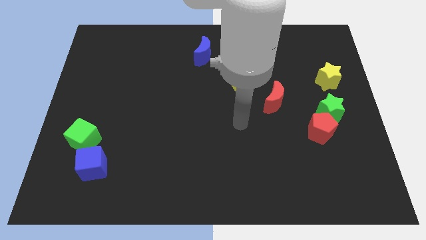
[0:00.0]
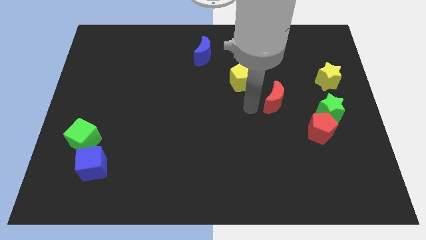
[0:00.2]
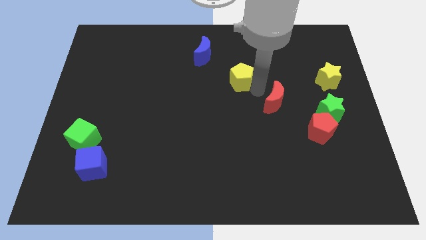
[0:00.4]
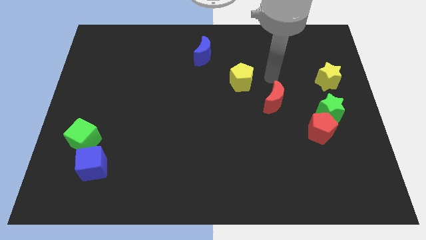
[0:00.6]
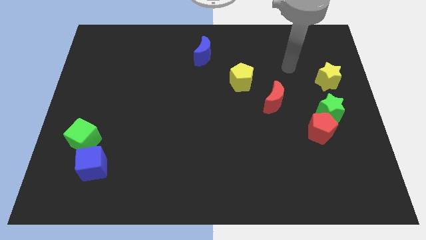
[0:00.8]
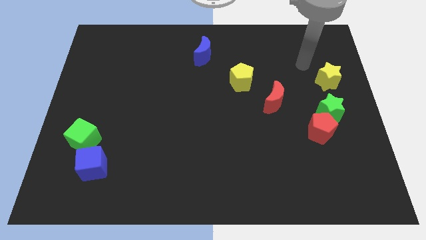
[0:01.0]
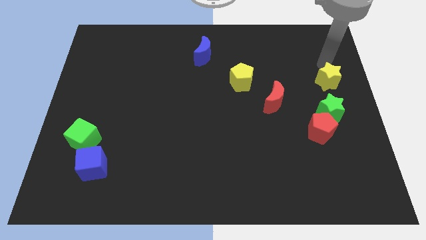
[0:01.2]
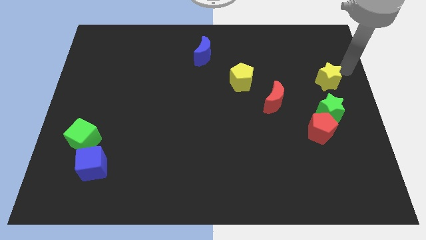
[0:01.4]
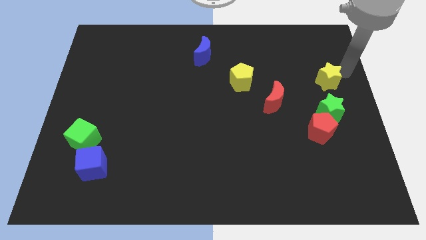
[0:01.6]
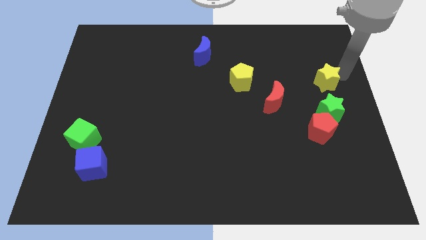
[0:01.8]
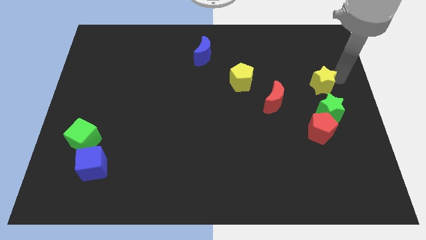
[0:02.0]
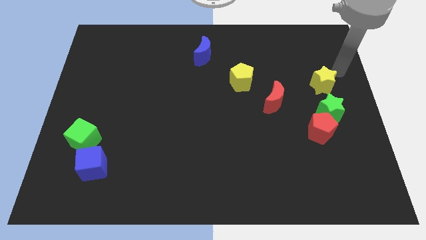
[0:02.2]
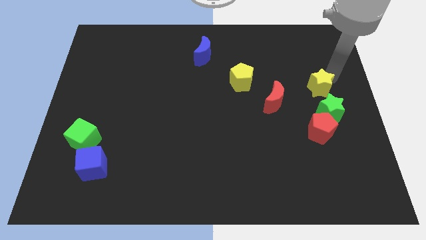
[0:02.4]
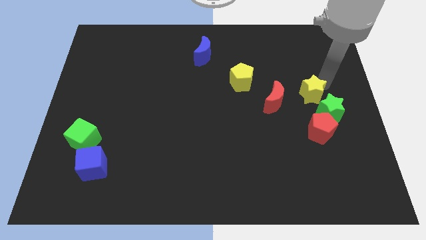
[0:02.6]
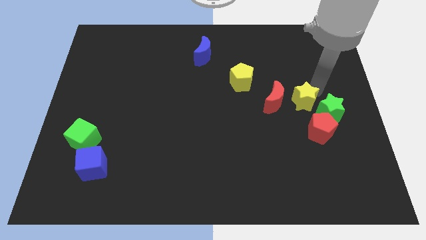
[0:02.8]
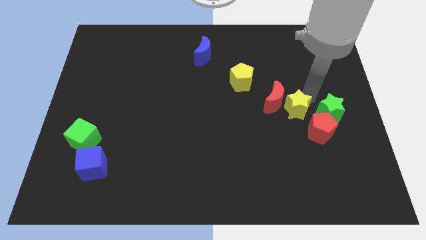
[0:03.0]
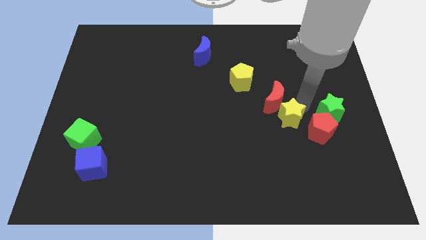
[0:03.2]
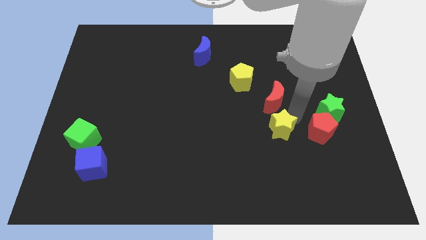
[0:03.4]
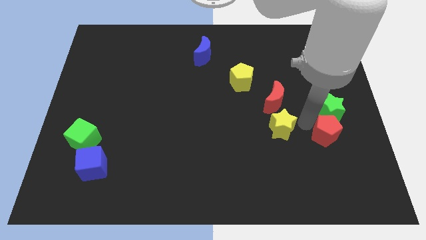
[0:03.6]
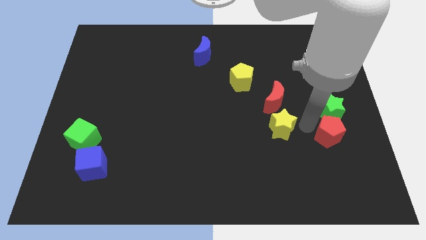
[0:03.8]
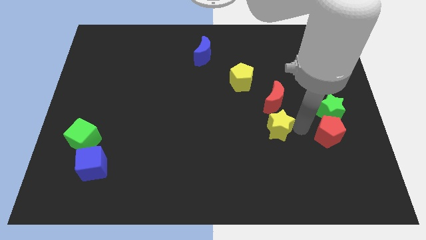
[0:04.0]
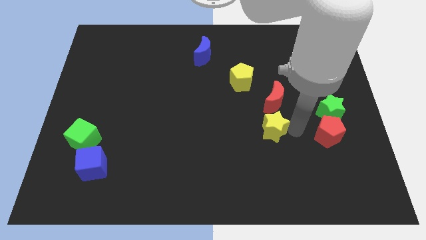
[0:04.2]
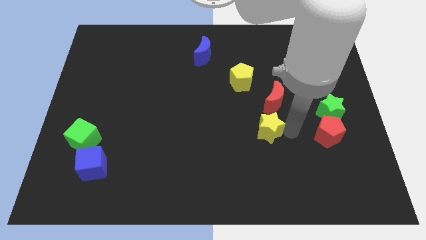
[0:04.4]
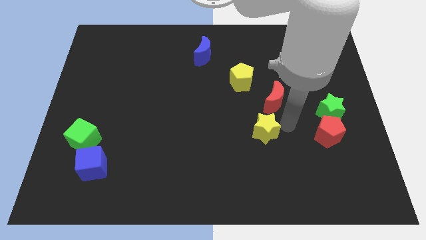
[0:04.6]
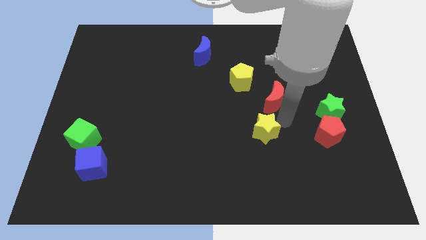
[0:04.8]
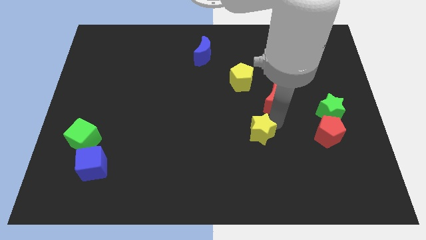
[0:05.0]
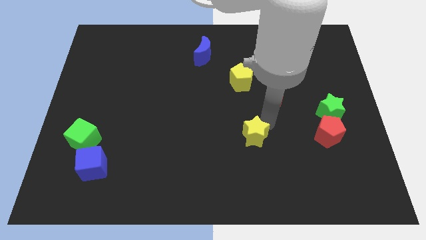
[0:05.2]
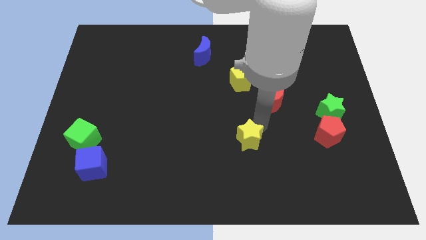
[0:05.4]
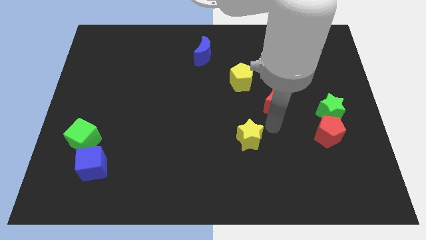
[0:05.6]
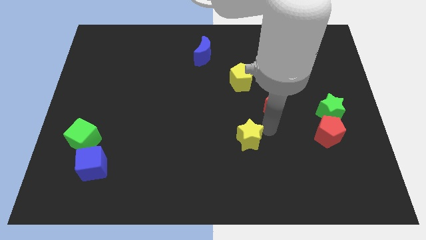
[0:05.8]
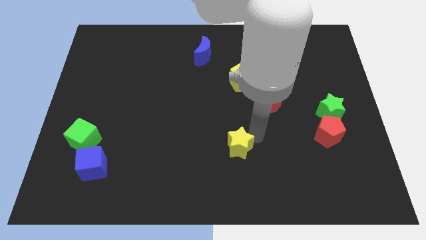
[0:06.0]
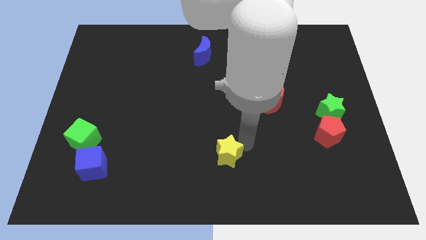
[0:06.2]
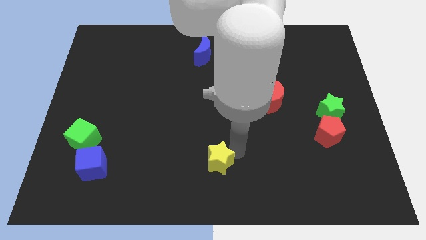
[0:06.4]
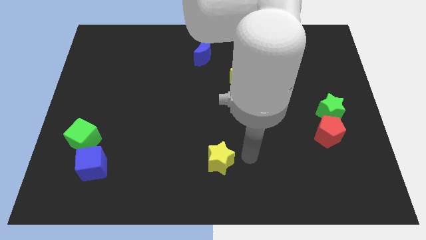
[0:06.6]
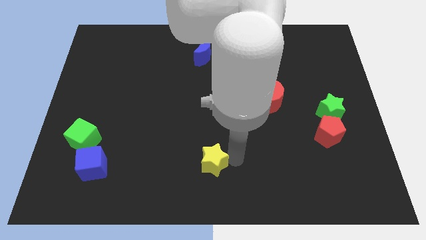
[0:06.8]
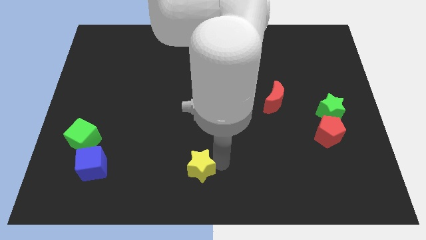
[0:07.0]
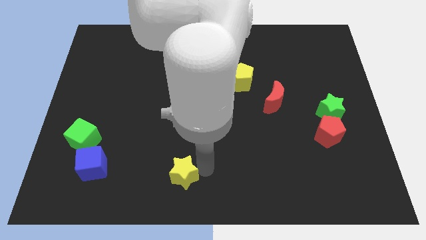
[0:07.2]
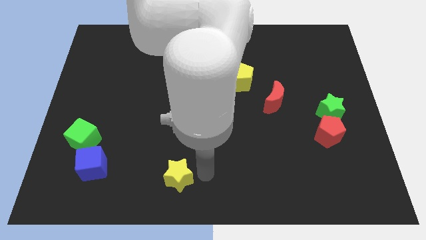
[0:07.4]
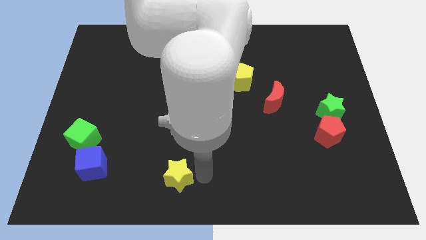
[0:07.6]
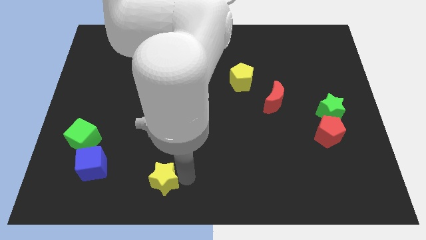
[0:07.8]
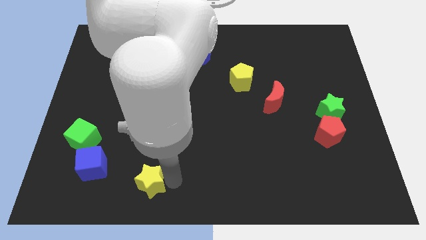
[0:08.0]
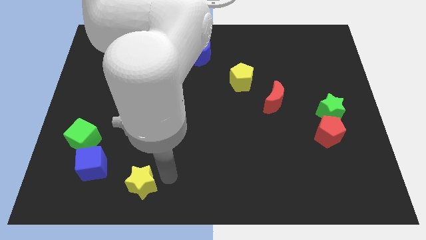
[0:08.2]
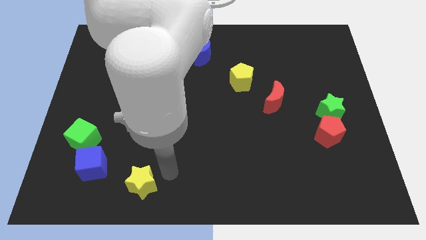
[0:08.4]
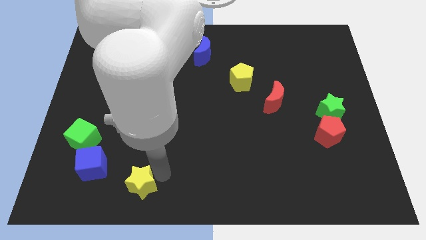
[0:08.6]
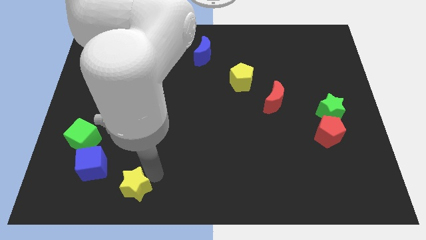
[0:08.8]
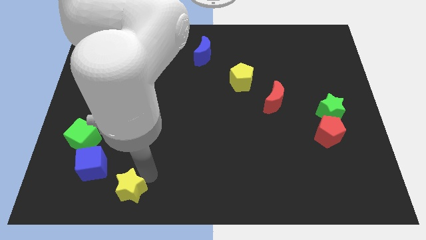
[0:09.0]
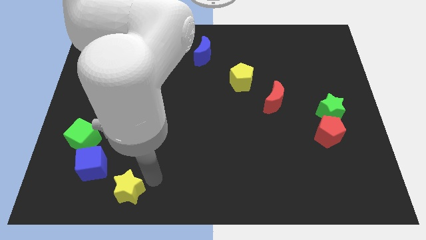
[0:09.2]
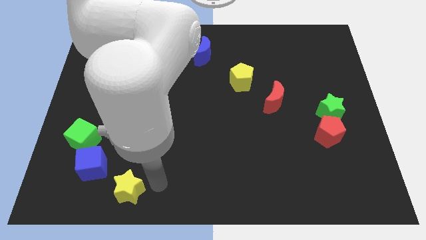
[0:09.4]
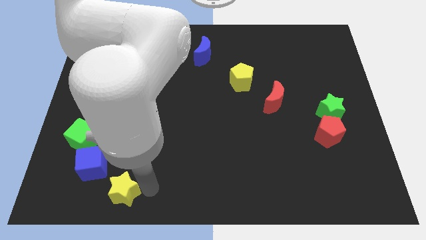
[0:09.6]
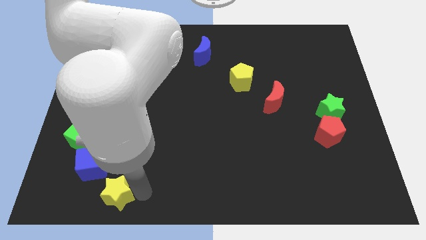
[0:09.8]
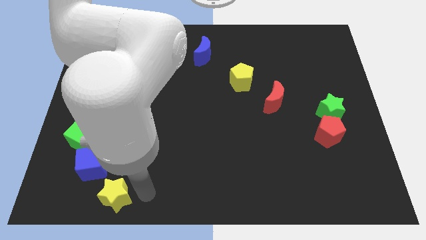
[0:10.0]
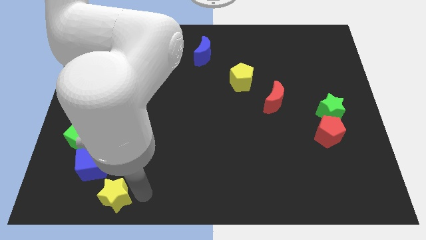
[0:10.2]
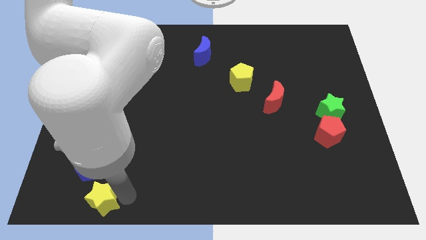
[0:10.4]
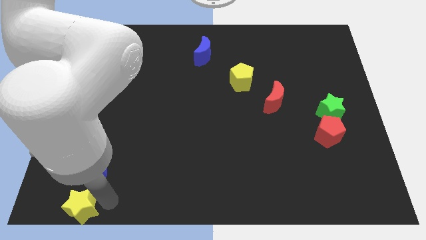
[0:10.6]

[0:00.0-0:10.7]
put the yellow star to the bottom left of the board

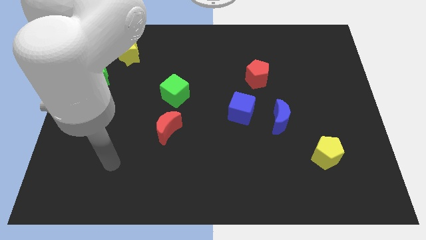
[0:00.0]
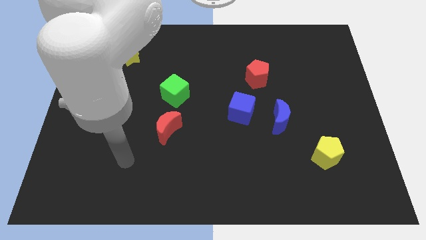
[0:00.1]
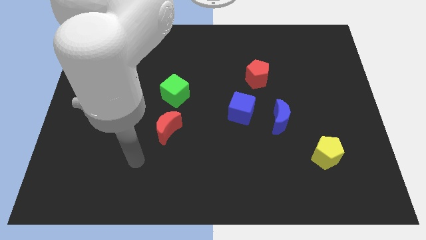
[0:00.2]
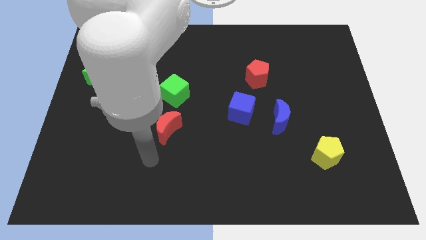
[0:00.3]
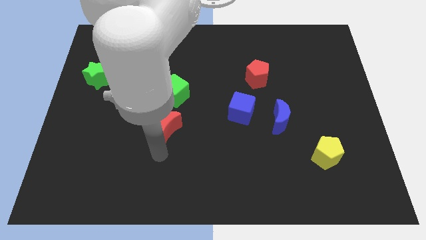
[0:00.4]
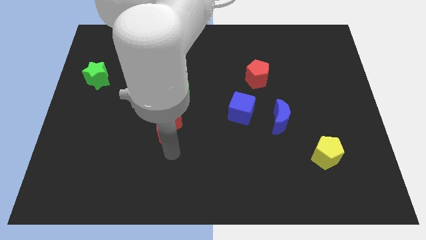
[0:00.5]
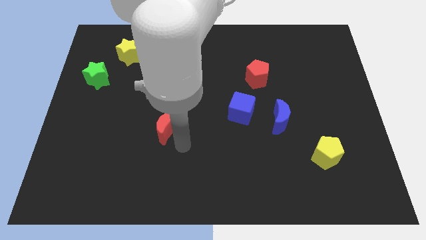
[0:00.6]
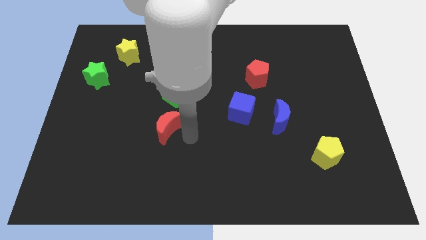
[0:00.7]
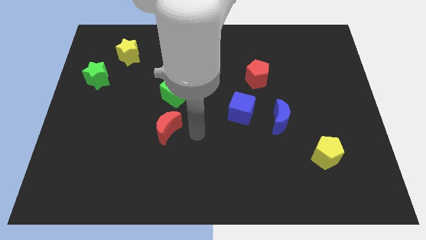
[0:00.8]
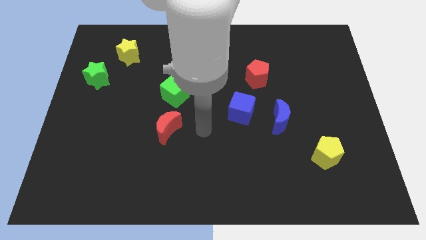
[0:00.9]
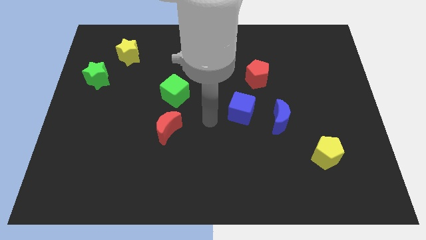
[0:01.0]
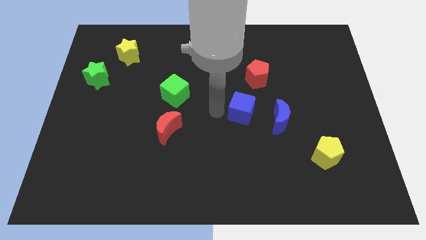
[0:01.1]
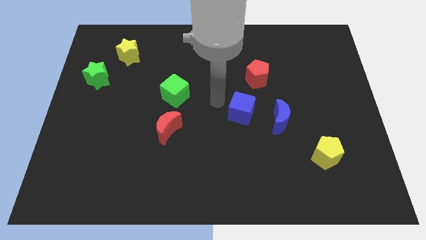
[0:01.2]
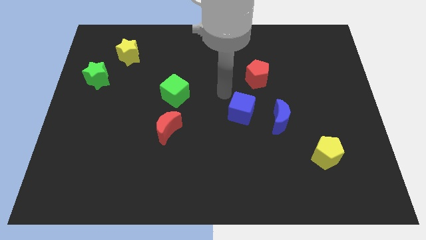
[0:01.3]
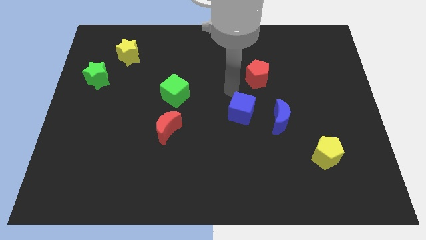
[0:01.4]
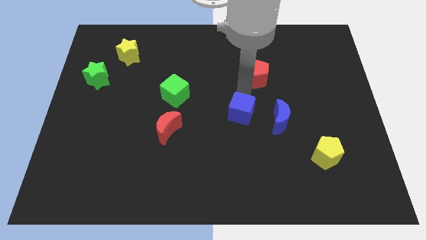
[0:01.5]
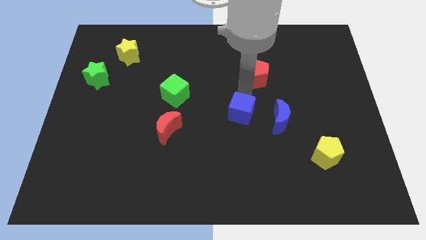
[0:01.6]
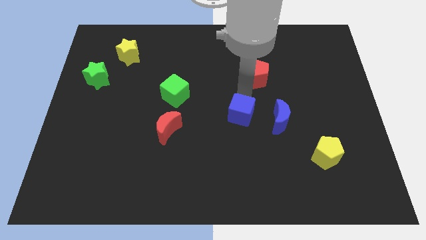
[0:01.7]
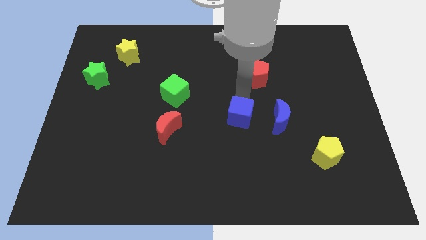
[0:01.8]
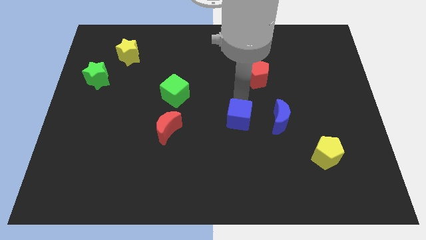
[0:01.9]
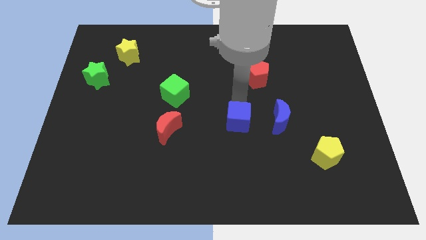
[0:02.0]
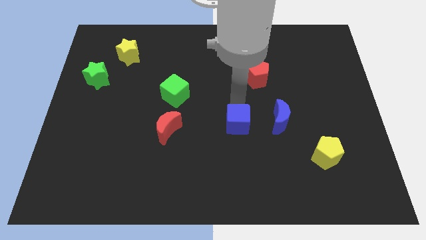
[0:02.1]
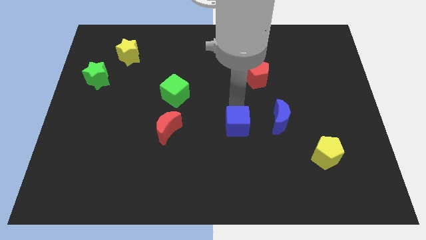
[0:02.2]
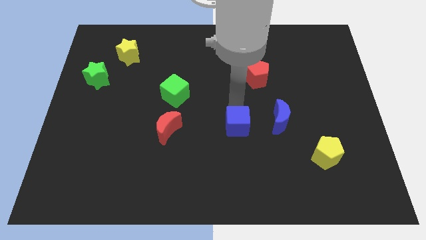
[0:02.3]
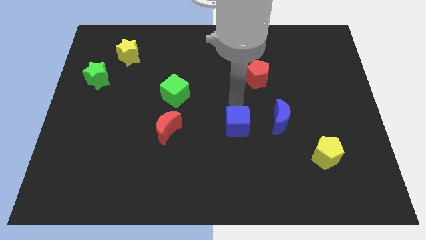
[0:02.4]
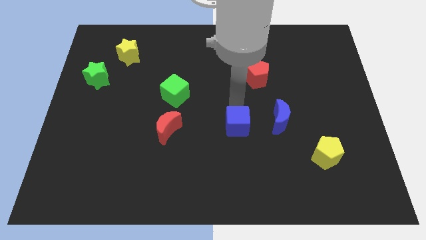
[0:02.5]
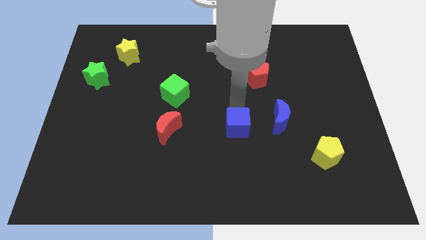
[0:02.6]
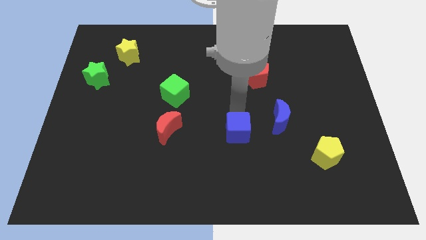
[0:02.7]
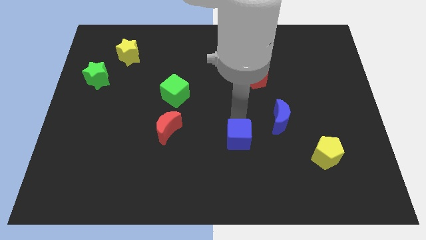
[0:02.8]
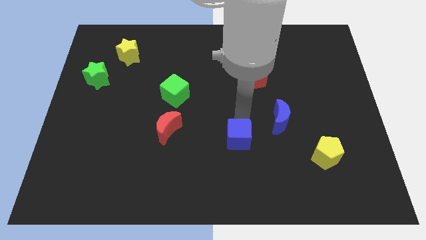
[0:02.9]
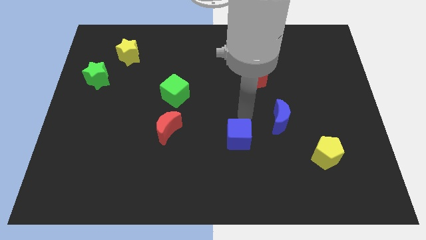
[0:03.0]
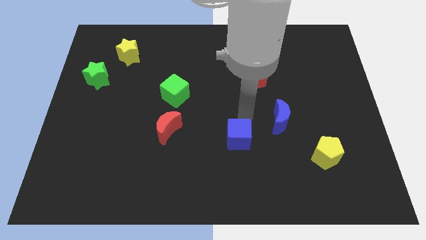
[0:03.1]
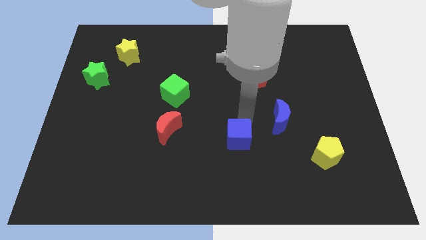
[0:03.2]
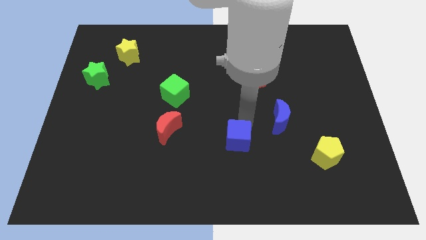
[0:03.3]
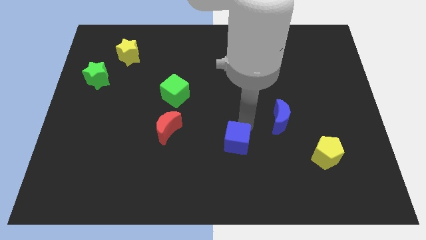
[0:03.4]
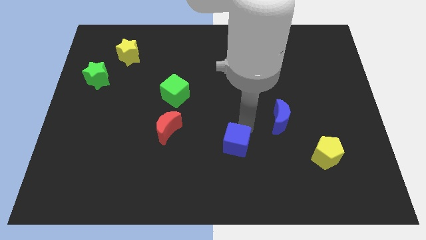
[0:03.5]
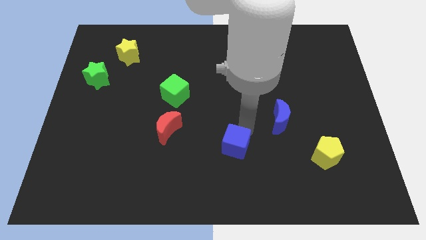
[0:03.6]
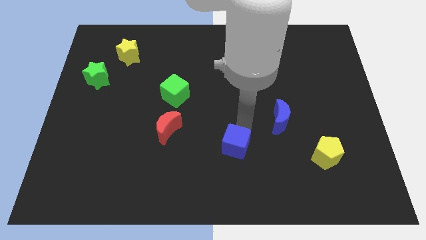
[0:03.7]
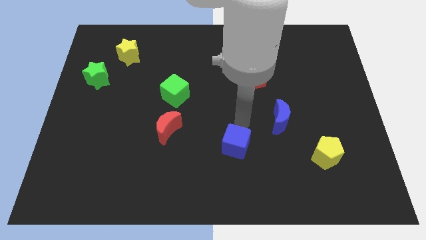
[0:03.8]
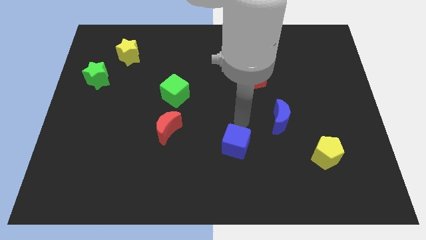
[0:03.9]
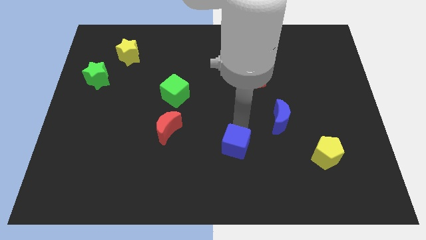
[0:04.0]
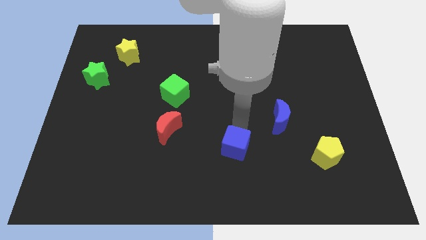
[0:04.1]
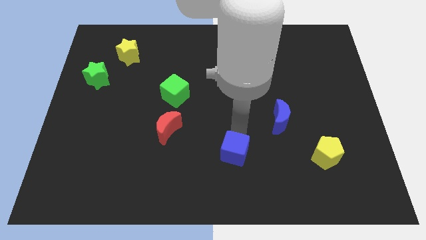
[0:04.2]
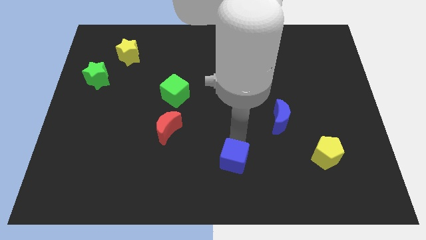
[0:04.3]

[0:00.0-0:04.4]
put the blue cube to the bottom side
